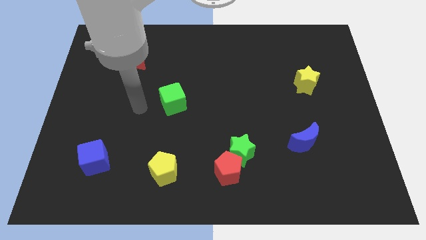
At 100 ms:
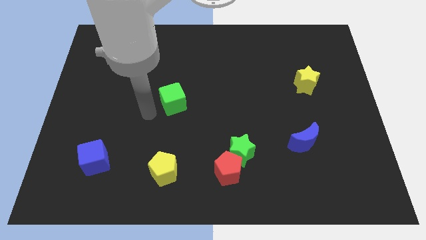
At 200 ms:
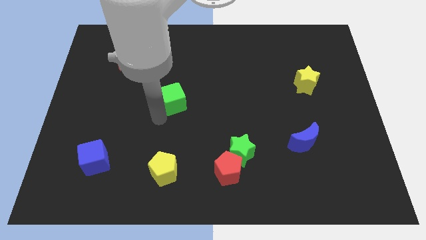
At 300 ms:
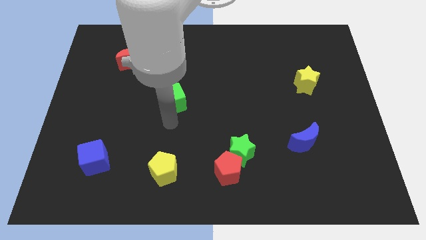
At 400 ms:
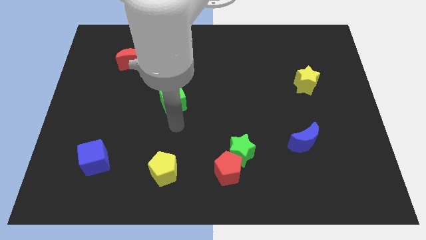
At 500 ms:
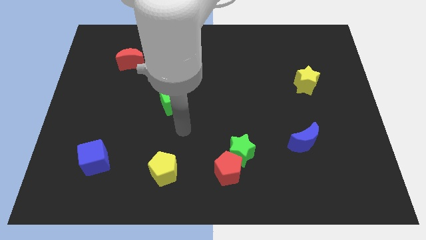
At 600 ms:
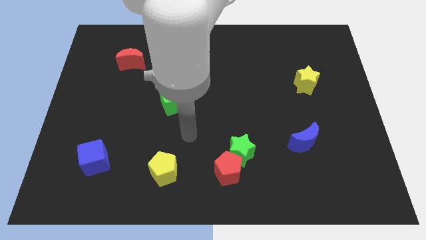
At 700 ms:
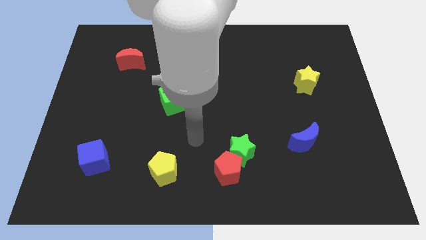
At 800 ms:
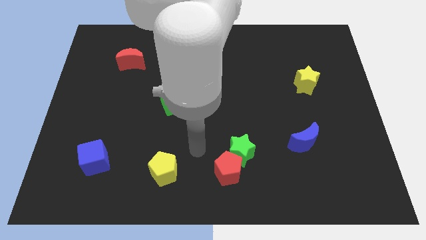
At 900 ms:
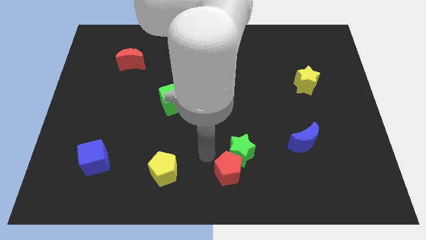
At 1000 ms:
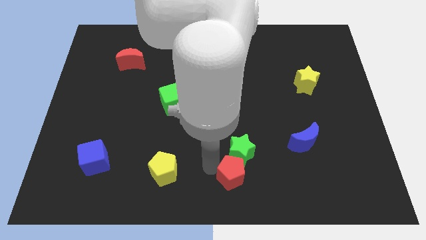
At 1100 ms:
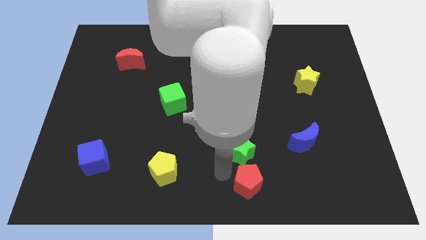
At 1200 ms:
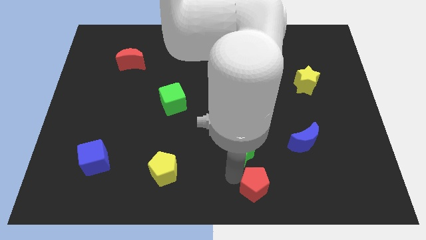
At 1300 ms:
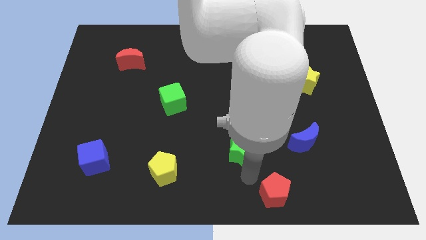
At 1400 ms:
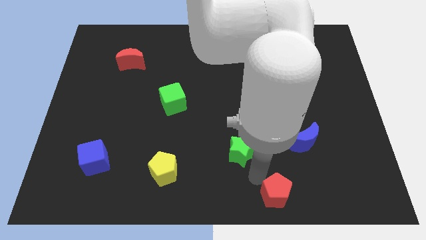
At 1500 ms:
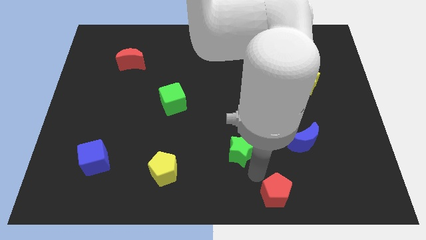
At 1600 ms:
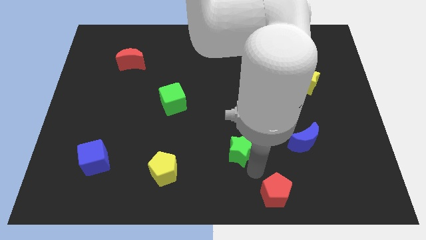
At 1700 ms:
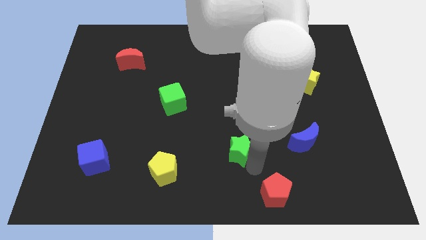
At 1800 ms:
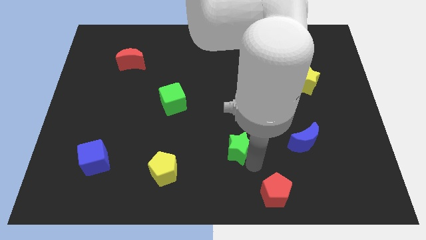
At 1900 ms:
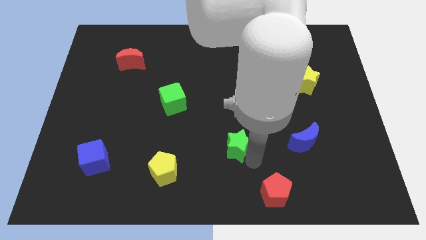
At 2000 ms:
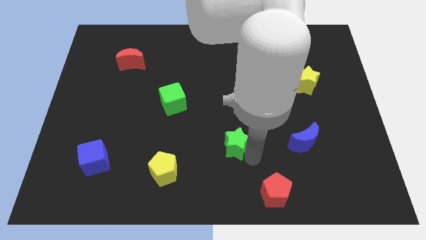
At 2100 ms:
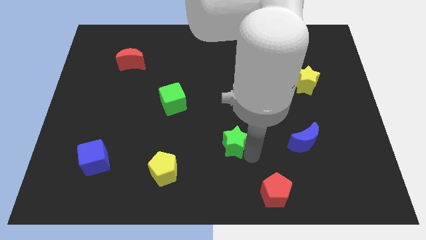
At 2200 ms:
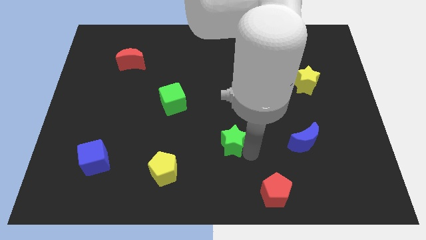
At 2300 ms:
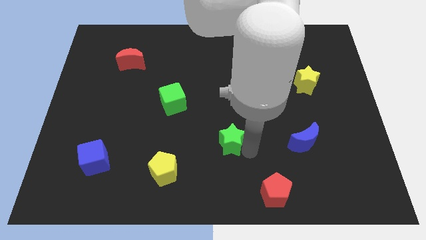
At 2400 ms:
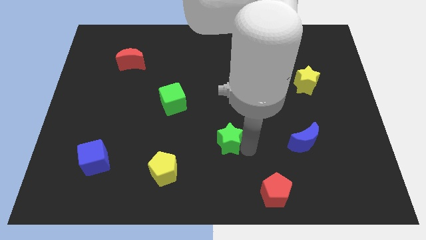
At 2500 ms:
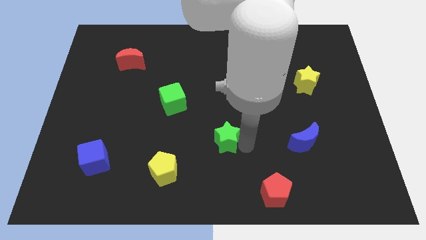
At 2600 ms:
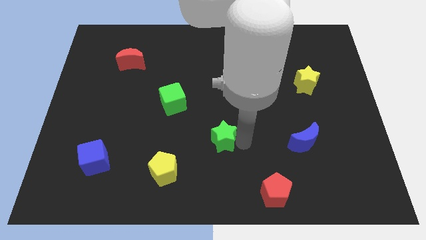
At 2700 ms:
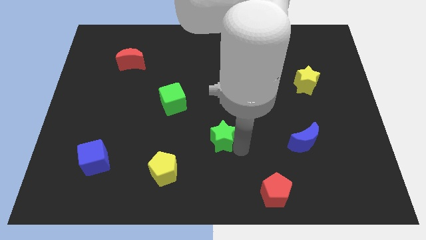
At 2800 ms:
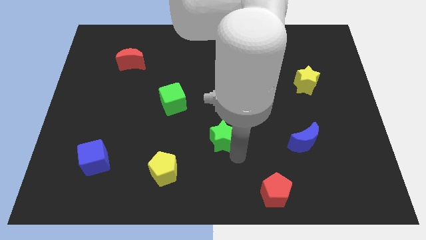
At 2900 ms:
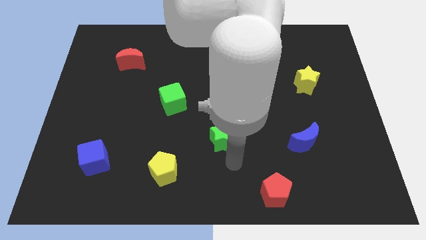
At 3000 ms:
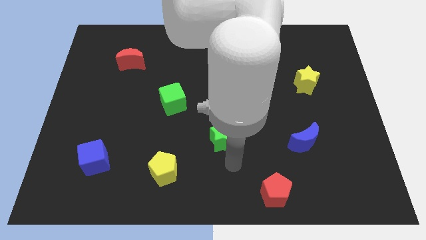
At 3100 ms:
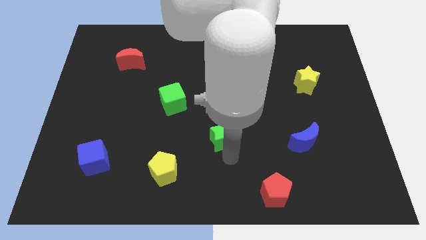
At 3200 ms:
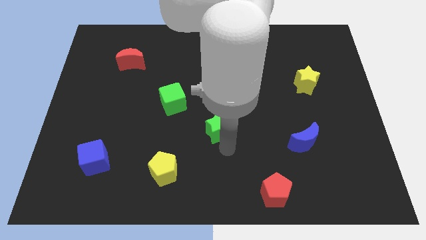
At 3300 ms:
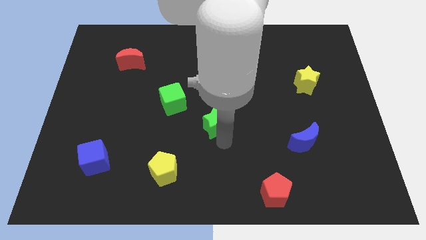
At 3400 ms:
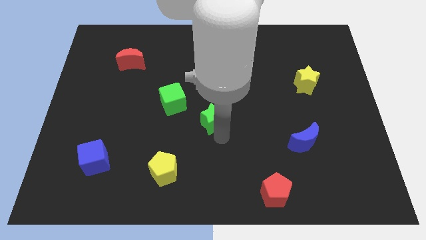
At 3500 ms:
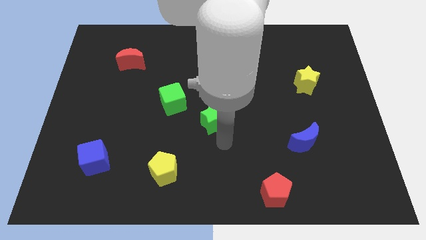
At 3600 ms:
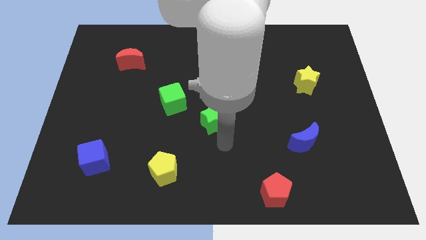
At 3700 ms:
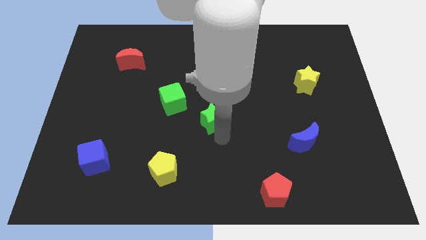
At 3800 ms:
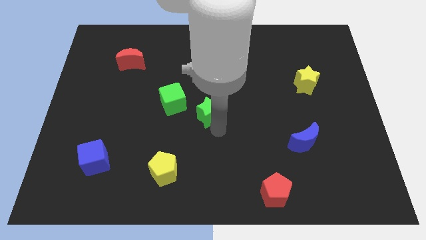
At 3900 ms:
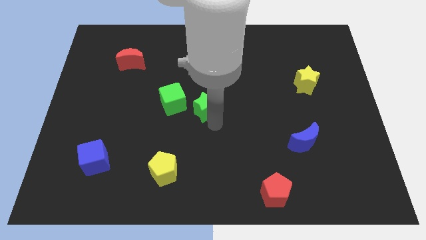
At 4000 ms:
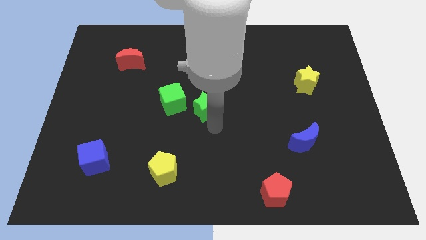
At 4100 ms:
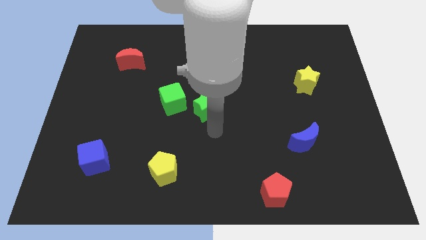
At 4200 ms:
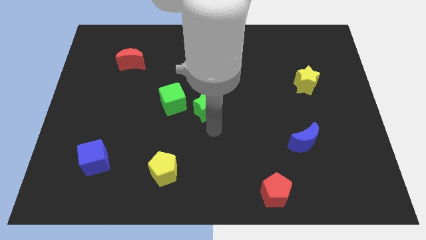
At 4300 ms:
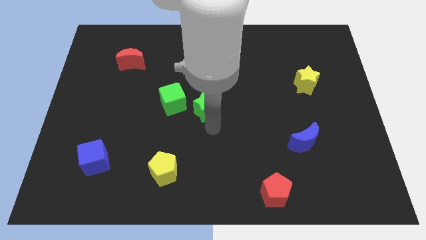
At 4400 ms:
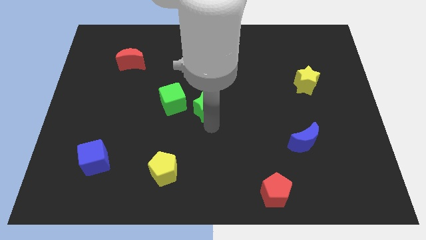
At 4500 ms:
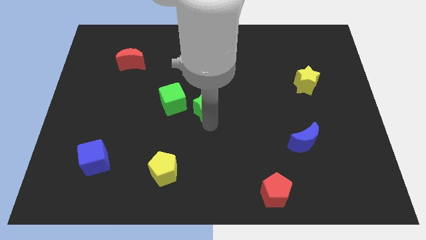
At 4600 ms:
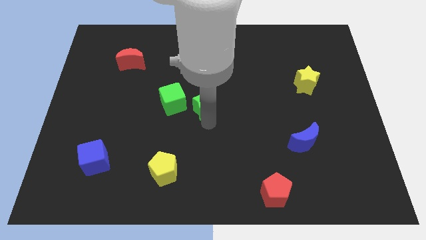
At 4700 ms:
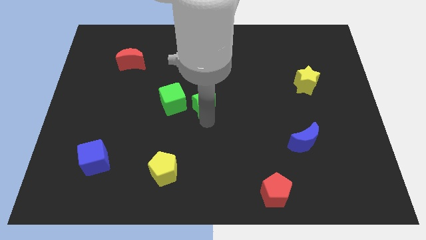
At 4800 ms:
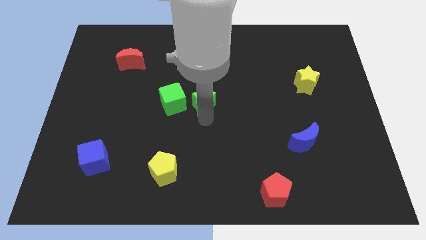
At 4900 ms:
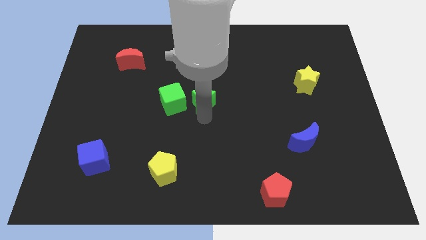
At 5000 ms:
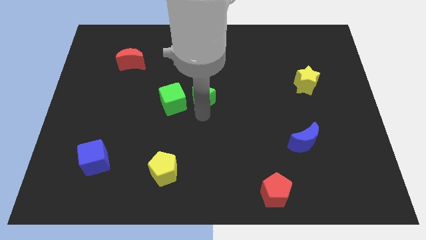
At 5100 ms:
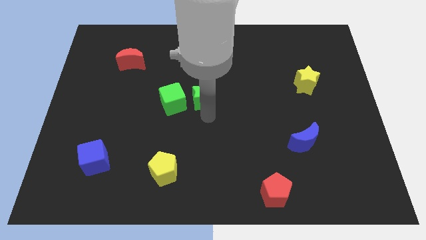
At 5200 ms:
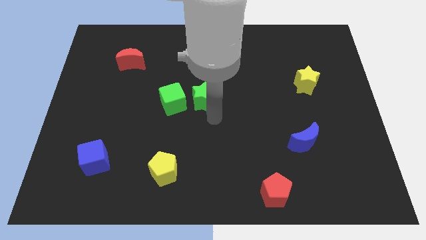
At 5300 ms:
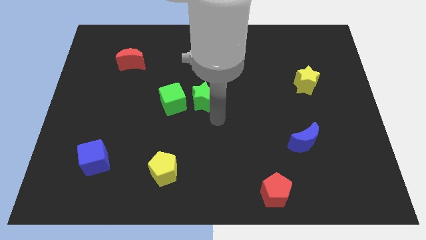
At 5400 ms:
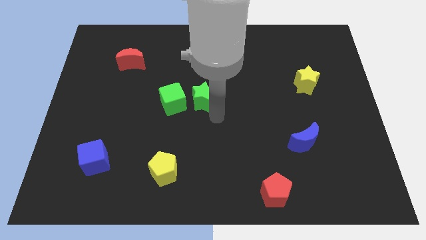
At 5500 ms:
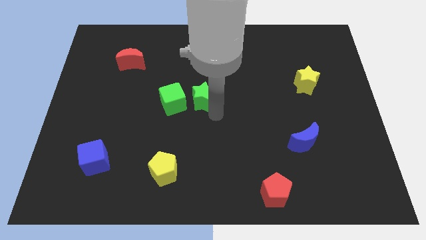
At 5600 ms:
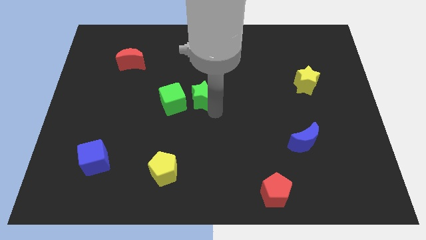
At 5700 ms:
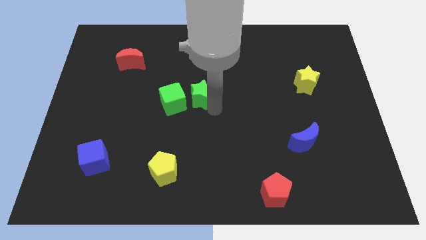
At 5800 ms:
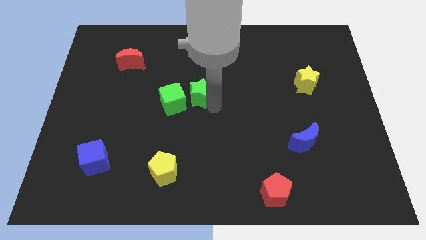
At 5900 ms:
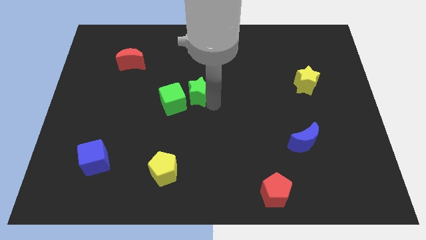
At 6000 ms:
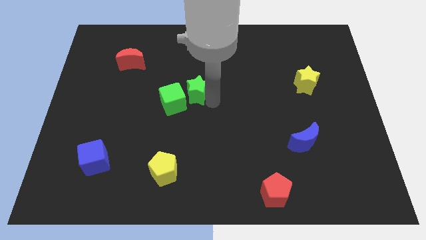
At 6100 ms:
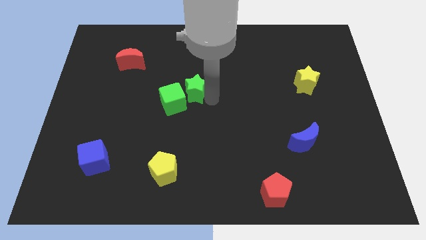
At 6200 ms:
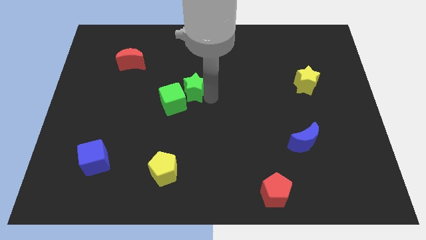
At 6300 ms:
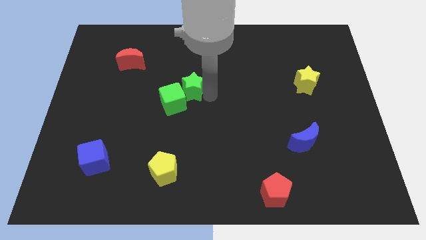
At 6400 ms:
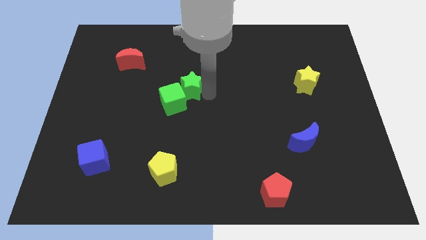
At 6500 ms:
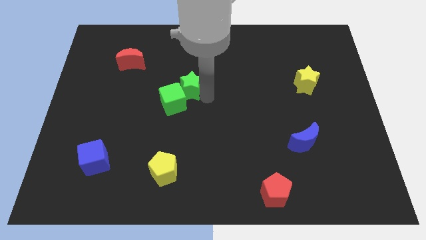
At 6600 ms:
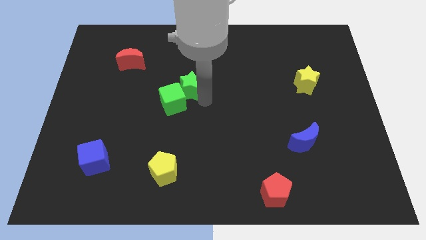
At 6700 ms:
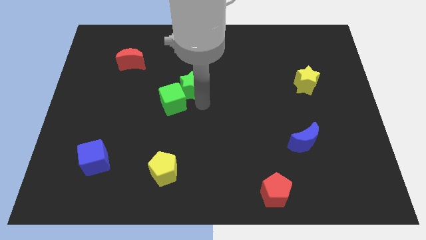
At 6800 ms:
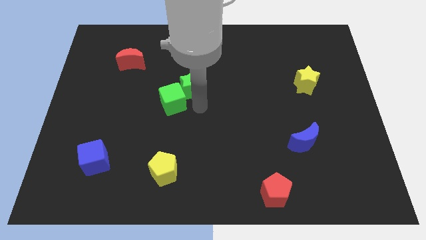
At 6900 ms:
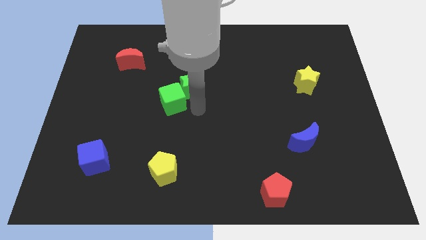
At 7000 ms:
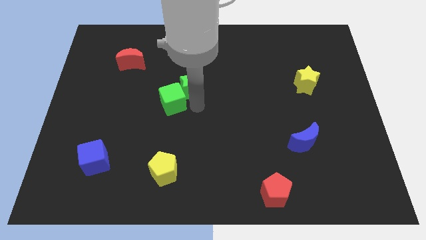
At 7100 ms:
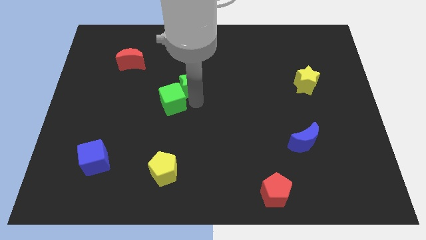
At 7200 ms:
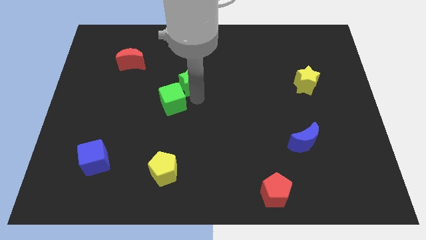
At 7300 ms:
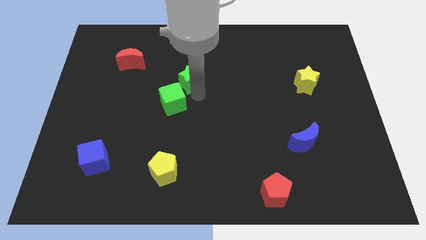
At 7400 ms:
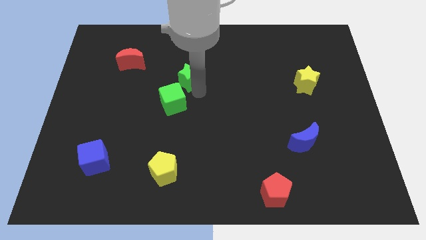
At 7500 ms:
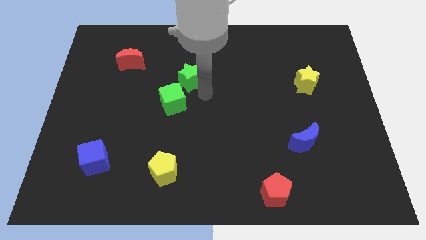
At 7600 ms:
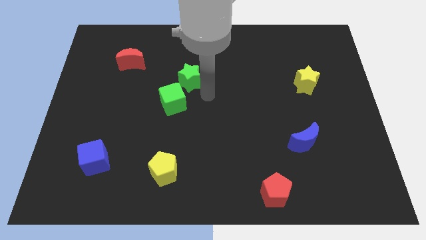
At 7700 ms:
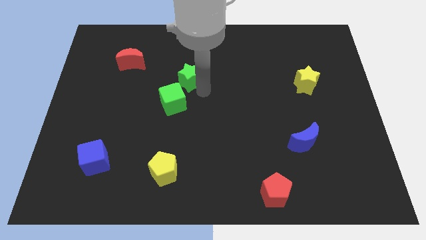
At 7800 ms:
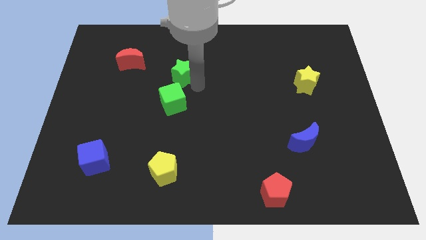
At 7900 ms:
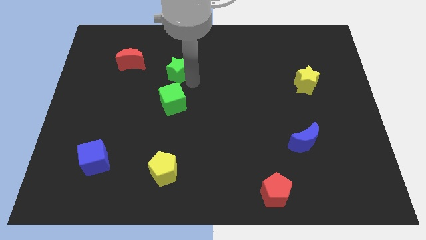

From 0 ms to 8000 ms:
move the green star to the right side of the red moon
